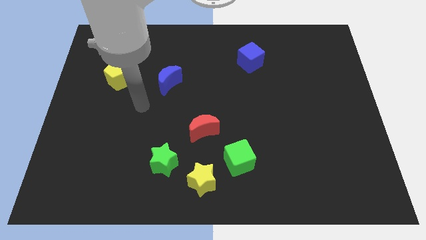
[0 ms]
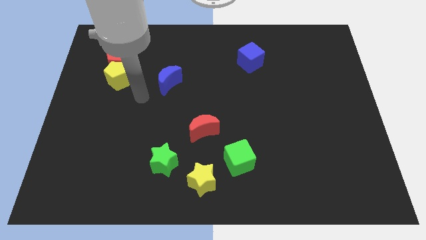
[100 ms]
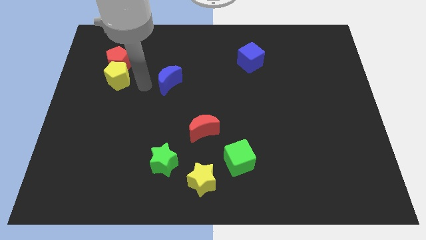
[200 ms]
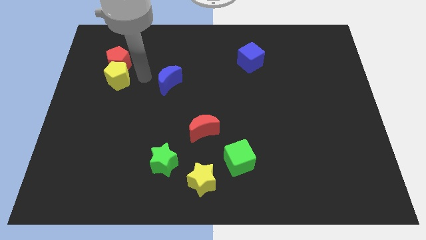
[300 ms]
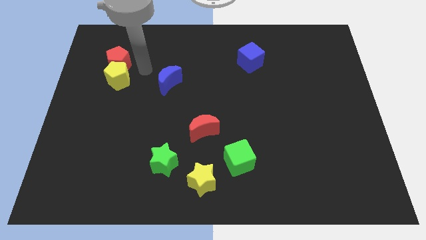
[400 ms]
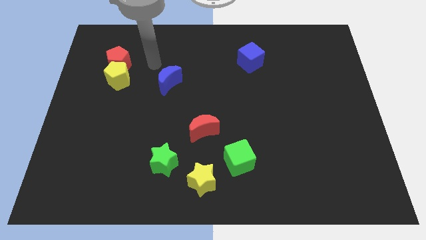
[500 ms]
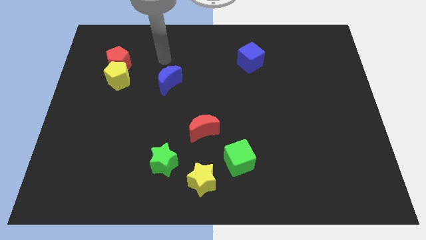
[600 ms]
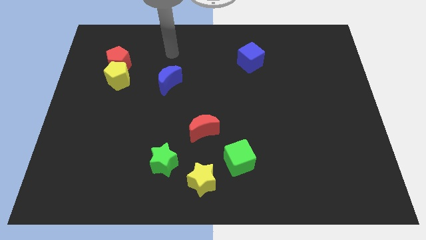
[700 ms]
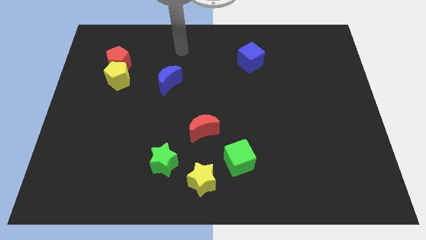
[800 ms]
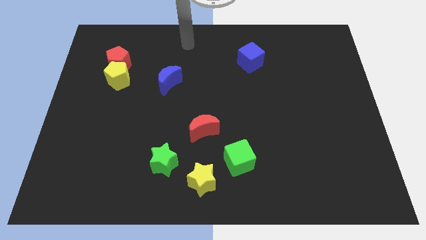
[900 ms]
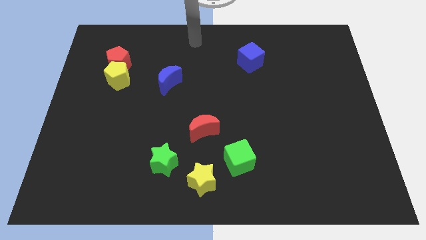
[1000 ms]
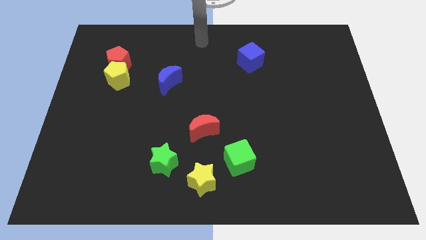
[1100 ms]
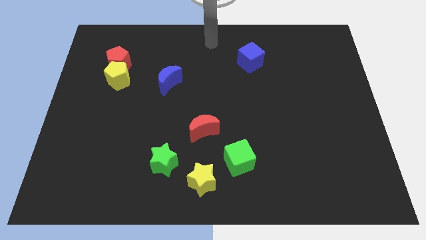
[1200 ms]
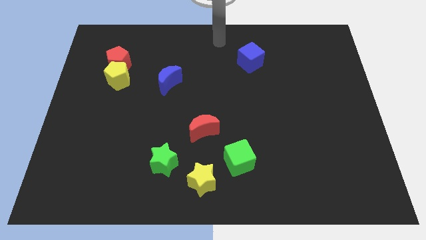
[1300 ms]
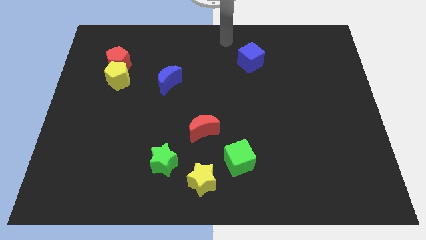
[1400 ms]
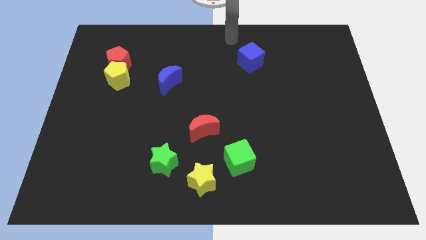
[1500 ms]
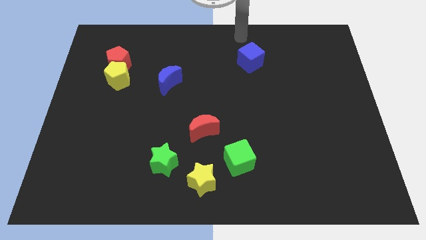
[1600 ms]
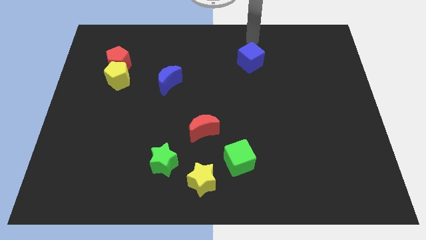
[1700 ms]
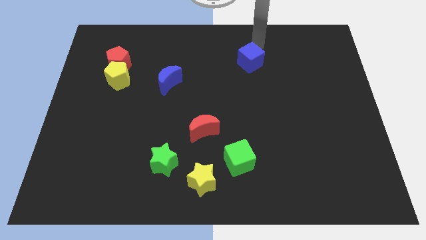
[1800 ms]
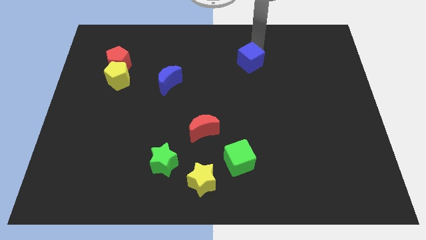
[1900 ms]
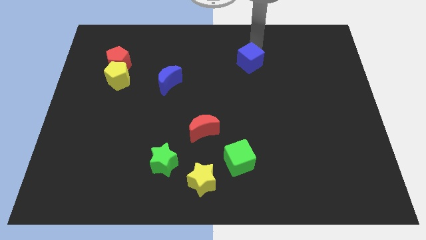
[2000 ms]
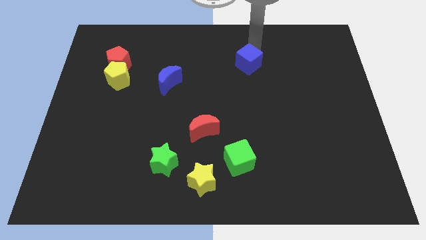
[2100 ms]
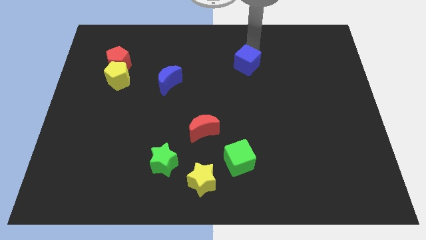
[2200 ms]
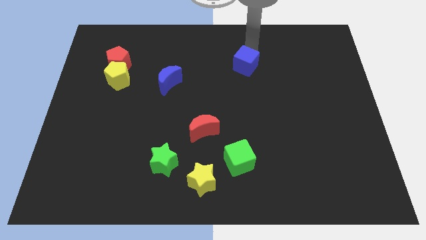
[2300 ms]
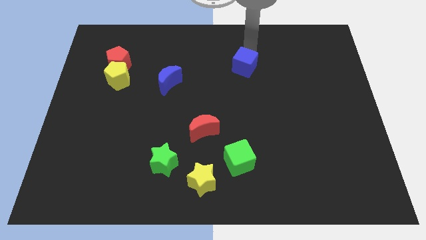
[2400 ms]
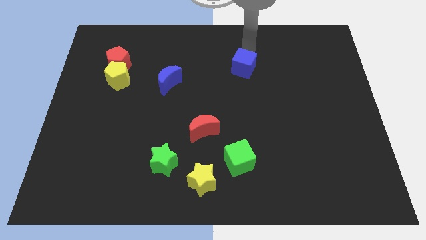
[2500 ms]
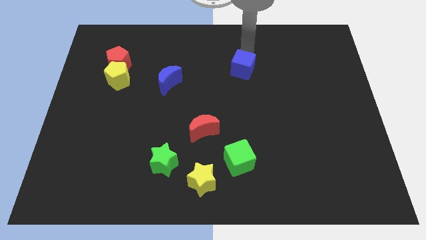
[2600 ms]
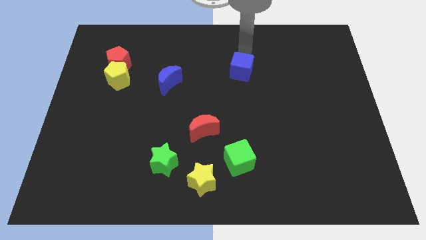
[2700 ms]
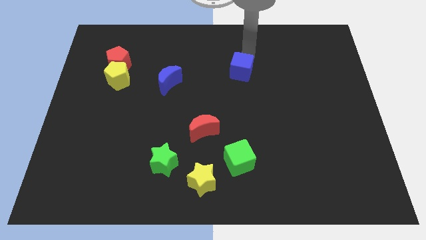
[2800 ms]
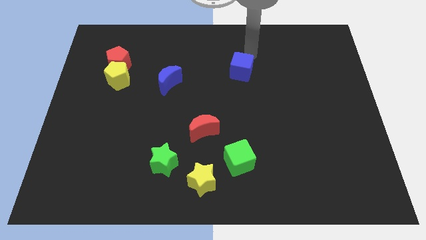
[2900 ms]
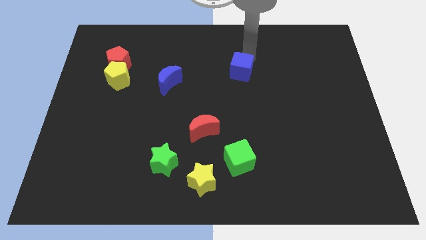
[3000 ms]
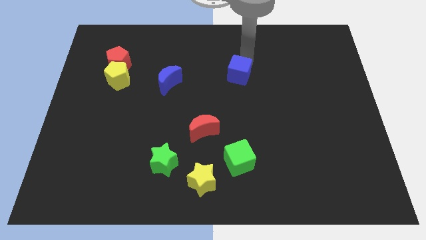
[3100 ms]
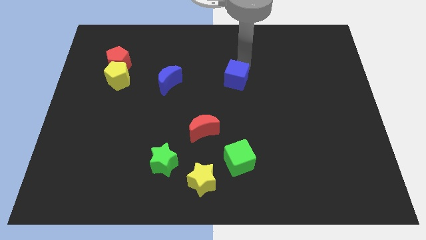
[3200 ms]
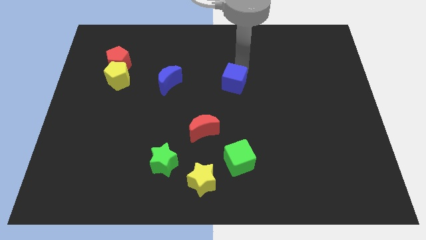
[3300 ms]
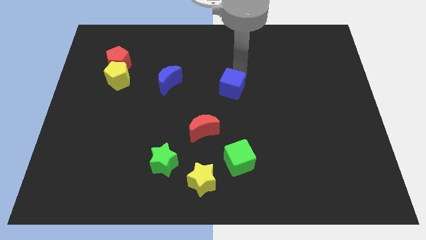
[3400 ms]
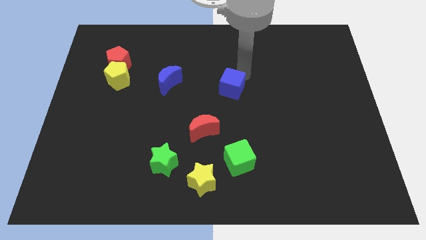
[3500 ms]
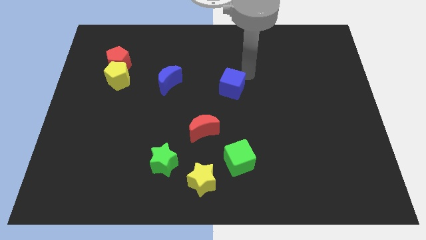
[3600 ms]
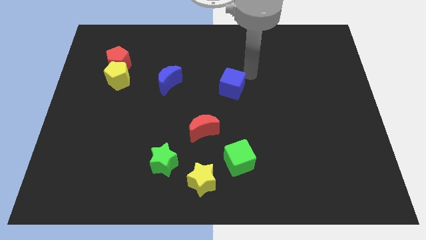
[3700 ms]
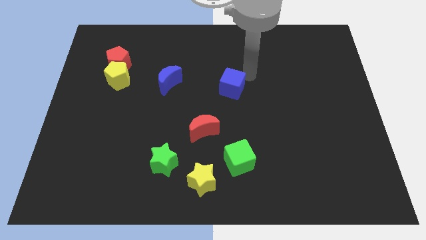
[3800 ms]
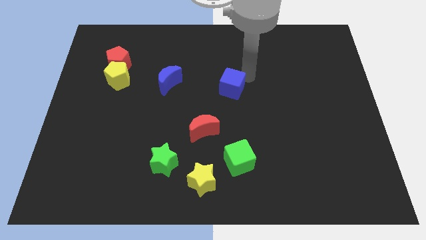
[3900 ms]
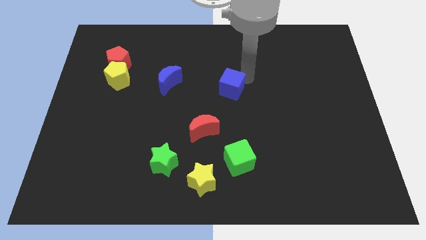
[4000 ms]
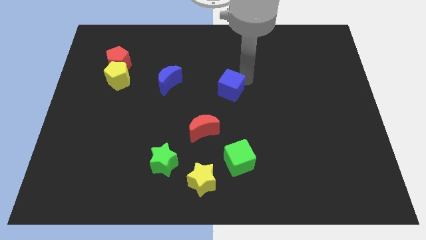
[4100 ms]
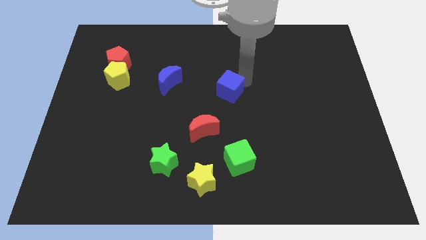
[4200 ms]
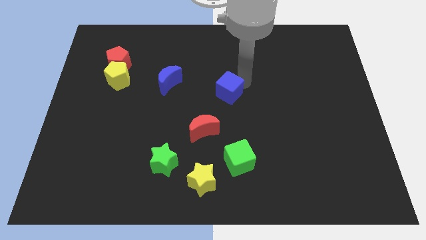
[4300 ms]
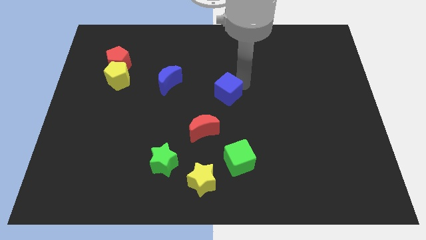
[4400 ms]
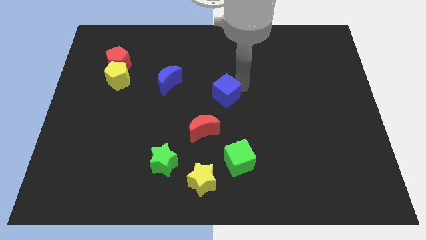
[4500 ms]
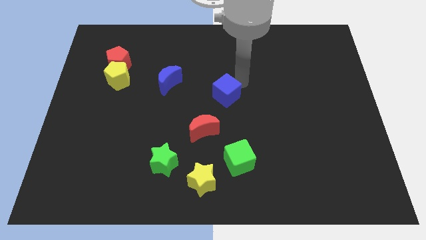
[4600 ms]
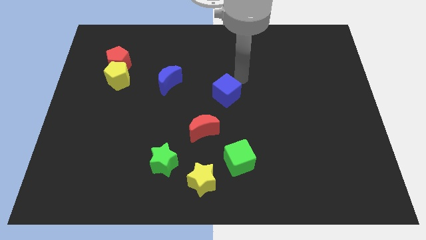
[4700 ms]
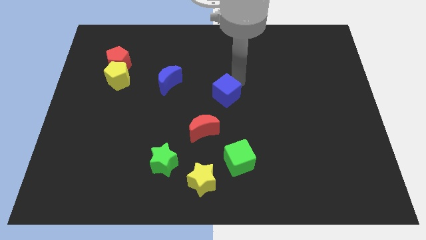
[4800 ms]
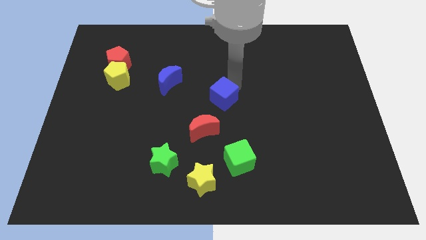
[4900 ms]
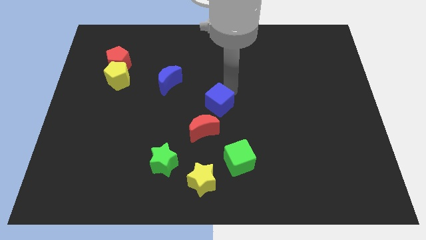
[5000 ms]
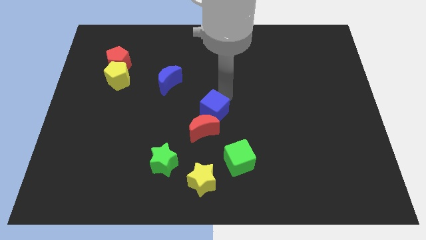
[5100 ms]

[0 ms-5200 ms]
push the blue cube towards the red moon

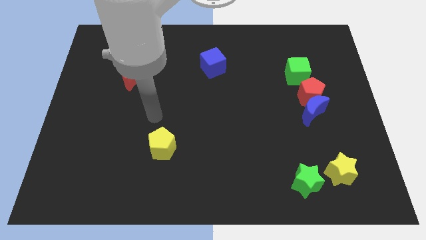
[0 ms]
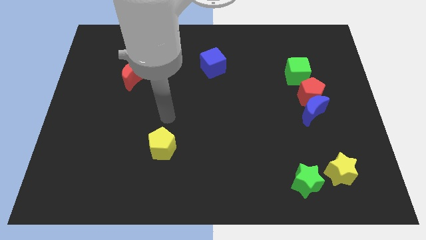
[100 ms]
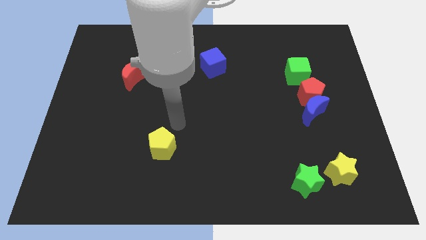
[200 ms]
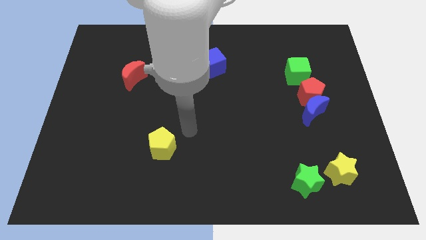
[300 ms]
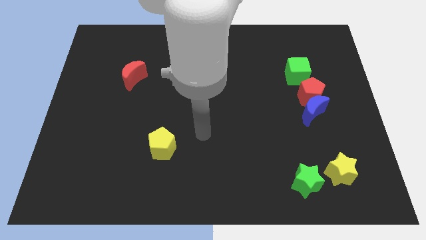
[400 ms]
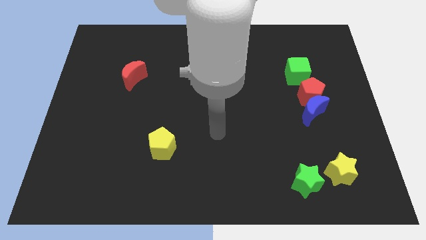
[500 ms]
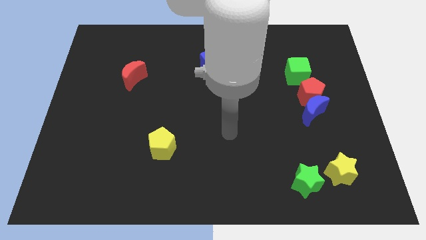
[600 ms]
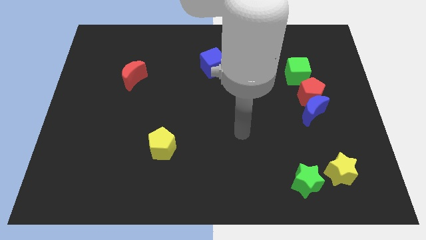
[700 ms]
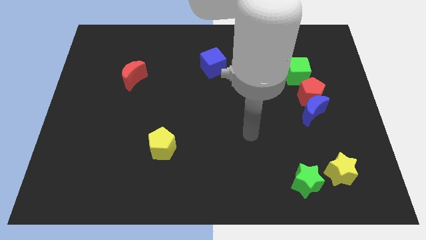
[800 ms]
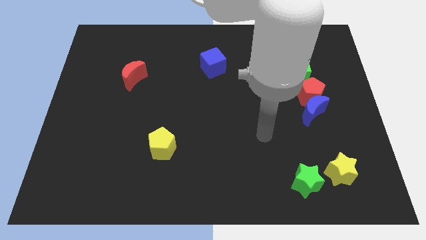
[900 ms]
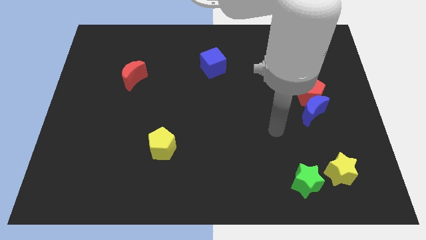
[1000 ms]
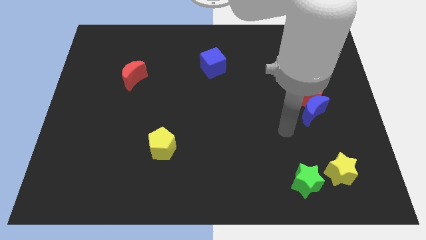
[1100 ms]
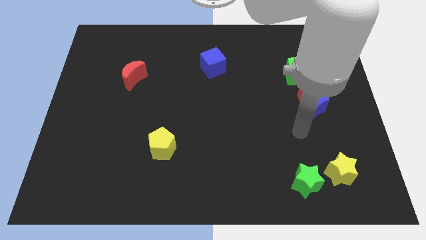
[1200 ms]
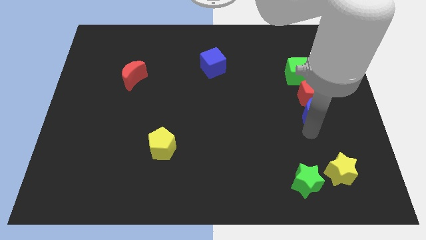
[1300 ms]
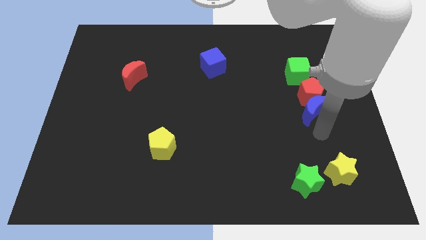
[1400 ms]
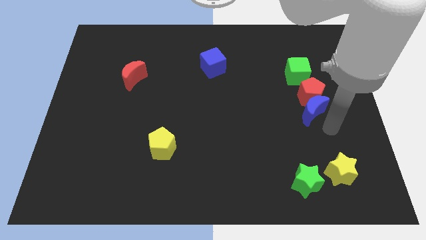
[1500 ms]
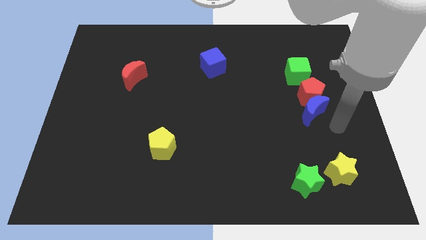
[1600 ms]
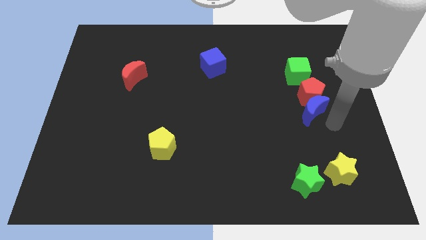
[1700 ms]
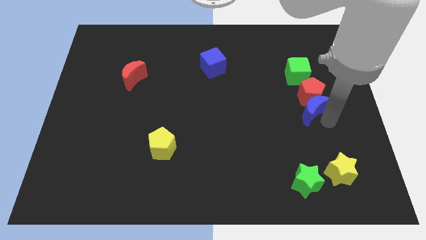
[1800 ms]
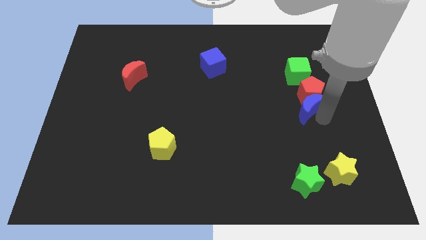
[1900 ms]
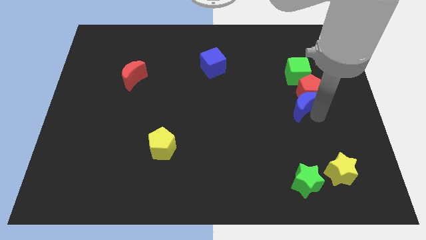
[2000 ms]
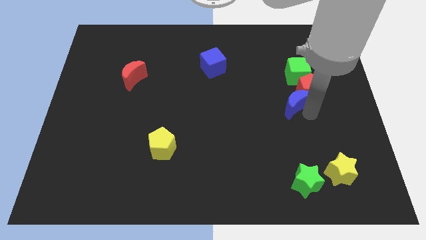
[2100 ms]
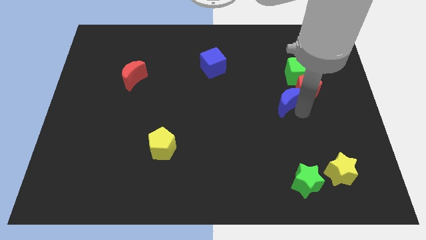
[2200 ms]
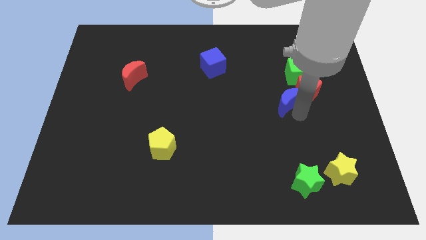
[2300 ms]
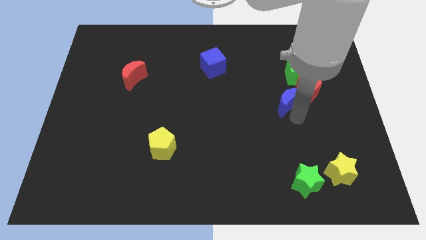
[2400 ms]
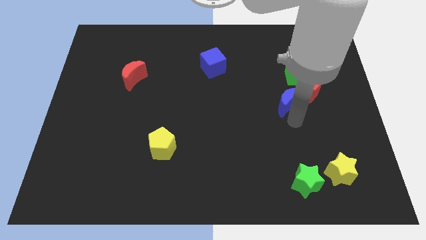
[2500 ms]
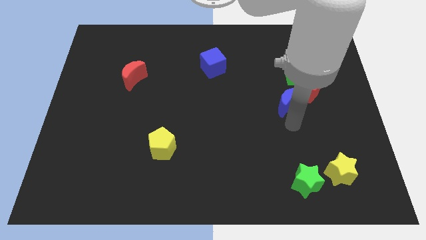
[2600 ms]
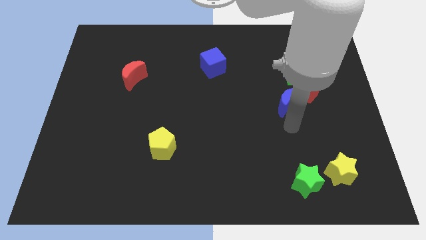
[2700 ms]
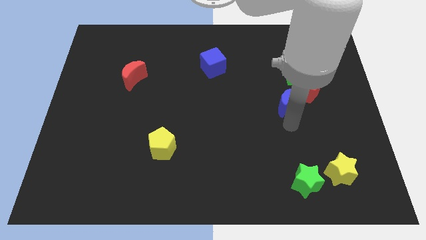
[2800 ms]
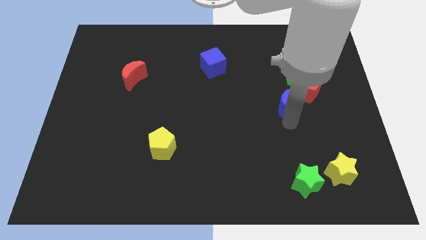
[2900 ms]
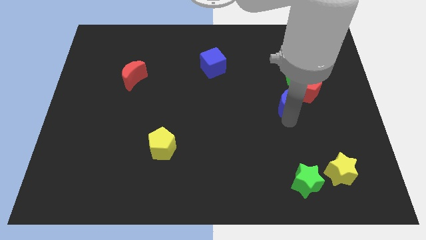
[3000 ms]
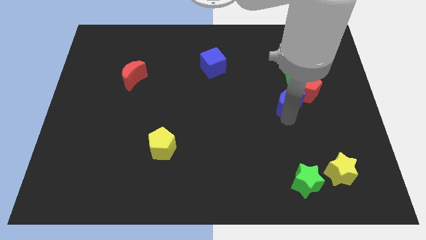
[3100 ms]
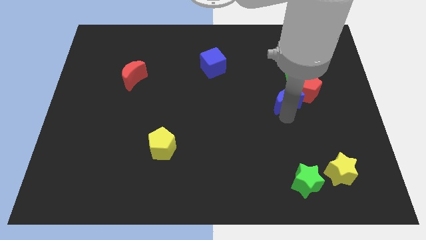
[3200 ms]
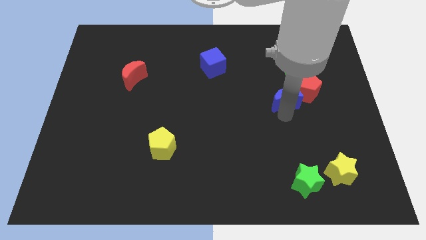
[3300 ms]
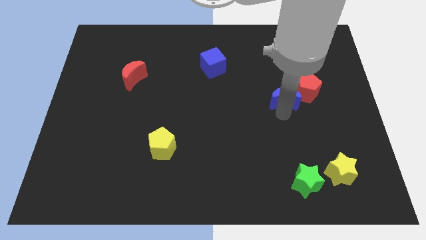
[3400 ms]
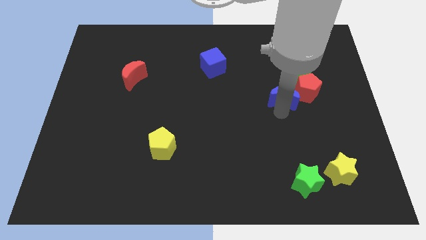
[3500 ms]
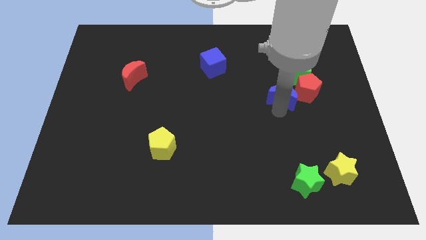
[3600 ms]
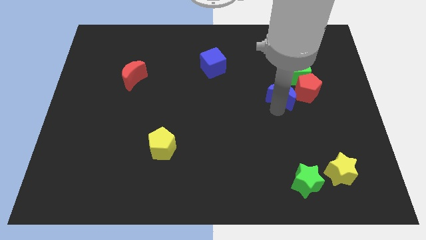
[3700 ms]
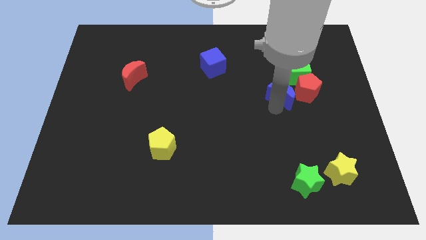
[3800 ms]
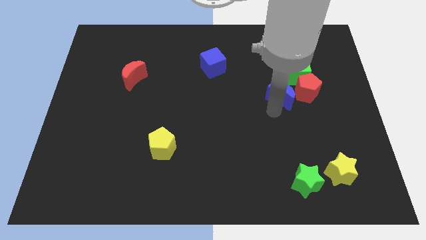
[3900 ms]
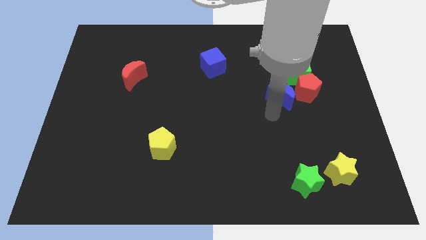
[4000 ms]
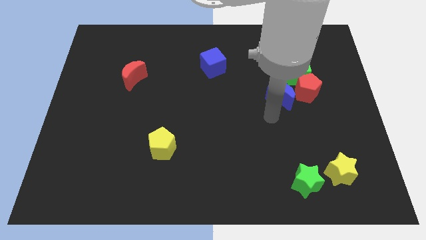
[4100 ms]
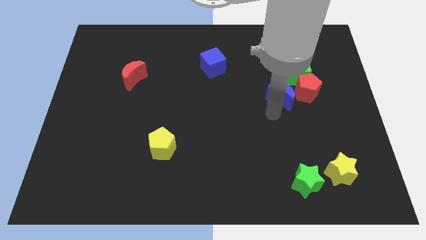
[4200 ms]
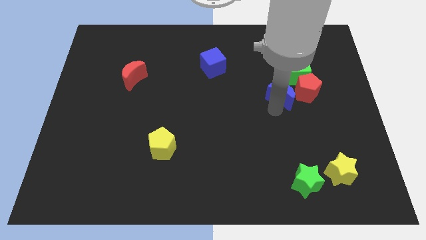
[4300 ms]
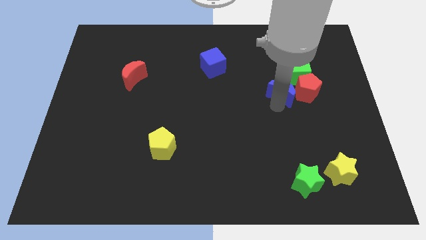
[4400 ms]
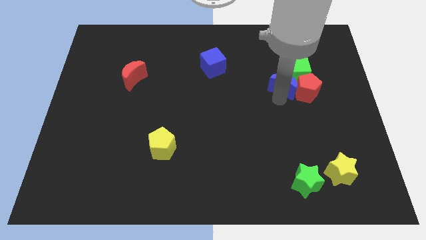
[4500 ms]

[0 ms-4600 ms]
put the blue moon towards the green cube
